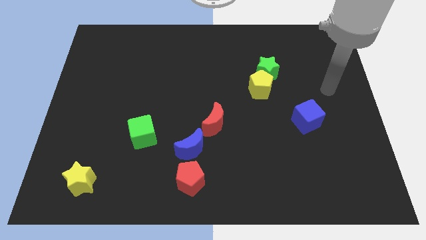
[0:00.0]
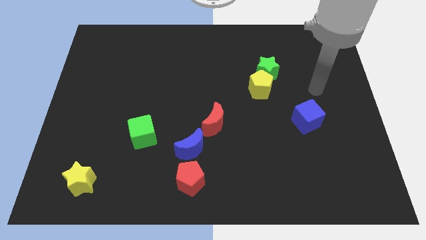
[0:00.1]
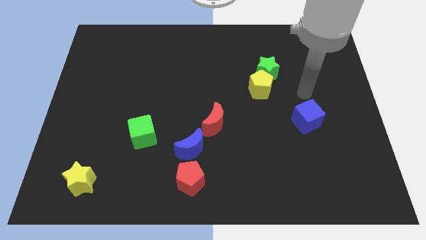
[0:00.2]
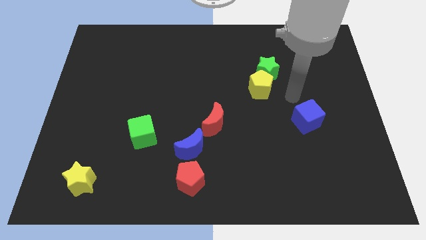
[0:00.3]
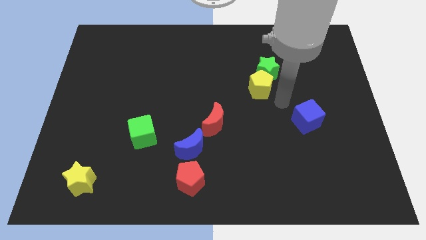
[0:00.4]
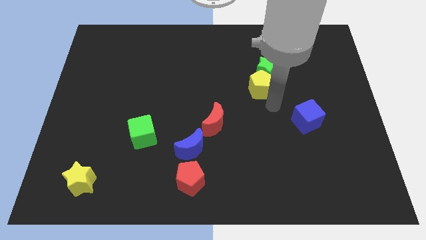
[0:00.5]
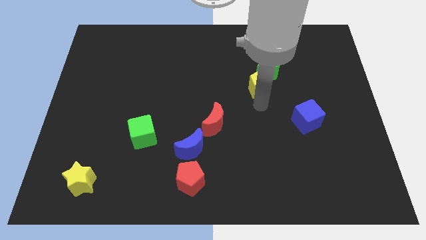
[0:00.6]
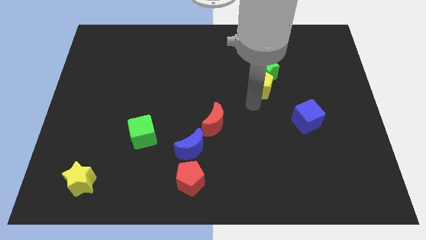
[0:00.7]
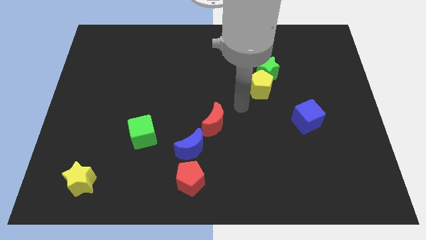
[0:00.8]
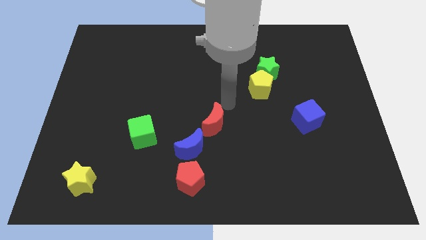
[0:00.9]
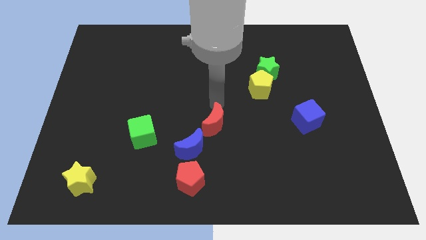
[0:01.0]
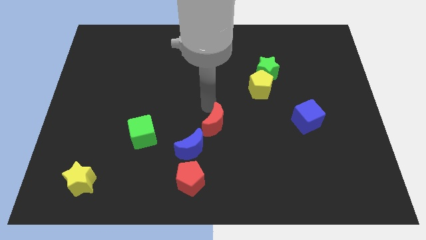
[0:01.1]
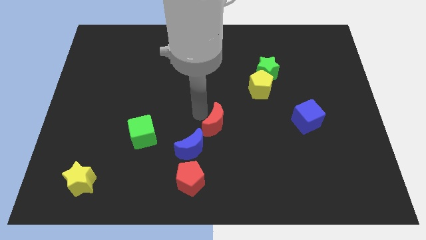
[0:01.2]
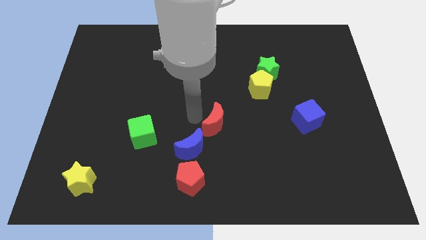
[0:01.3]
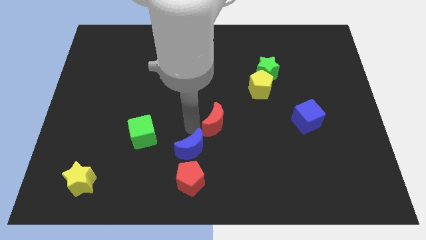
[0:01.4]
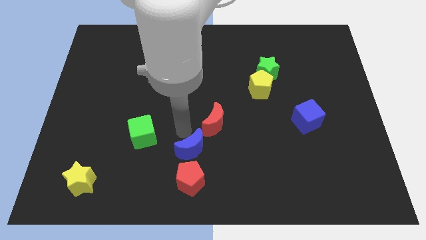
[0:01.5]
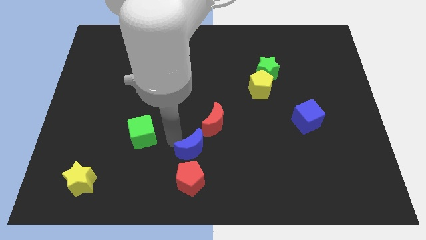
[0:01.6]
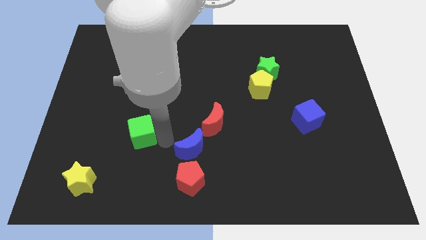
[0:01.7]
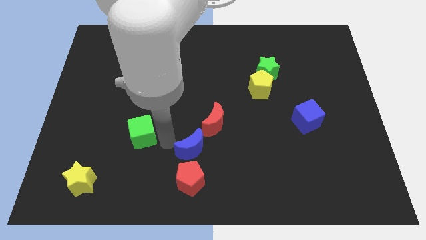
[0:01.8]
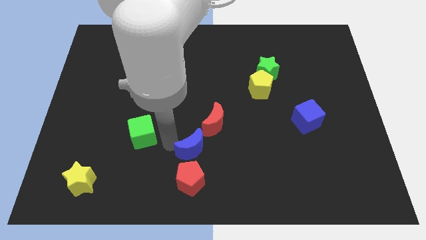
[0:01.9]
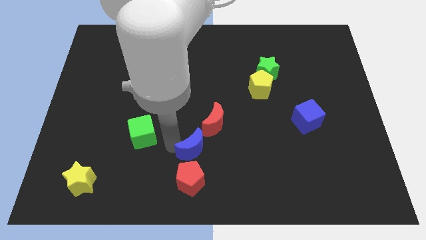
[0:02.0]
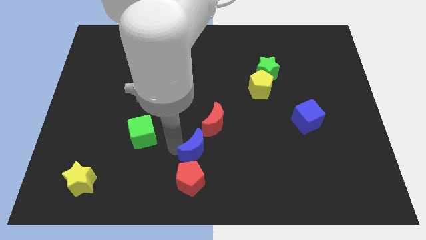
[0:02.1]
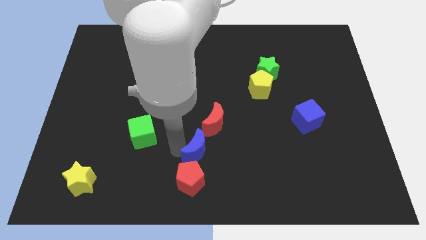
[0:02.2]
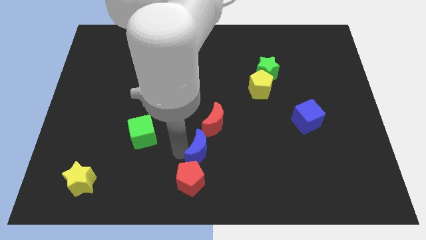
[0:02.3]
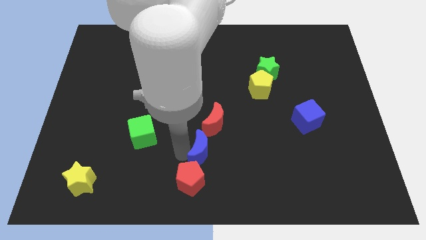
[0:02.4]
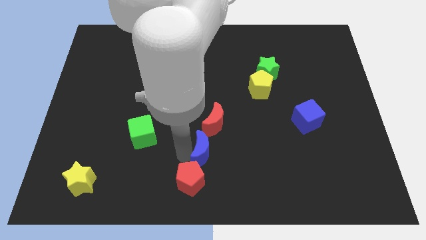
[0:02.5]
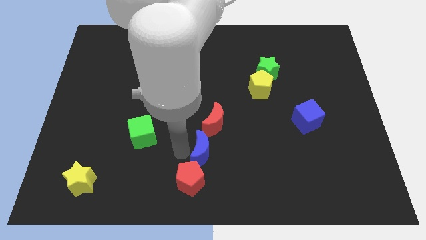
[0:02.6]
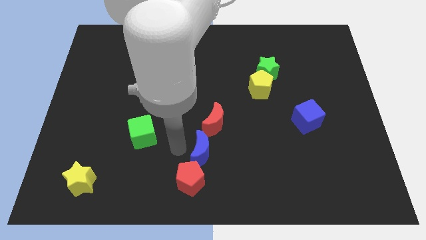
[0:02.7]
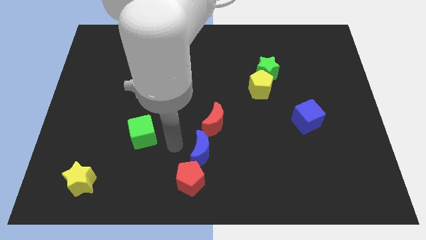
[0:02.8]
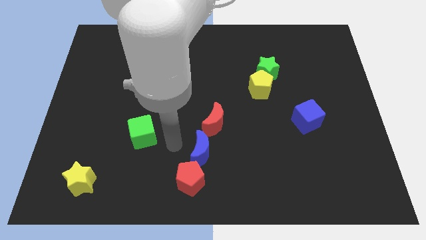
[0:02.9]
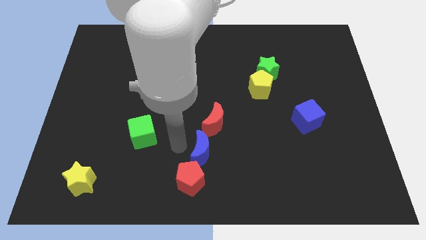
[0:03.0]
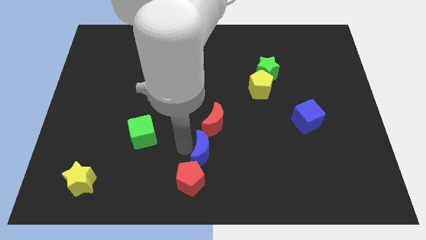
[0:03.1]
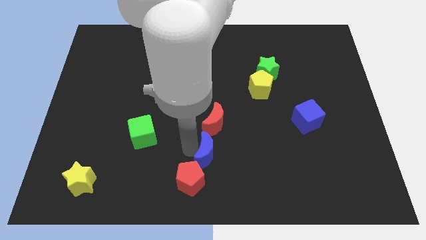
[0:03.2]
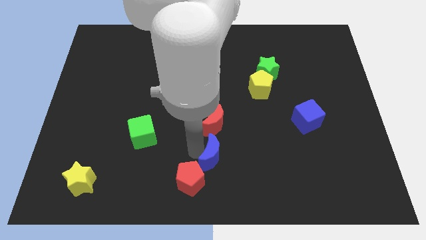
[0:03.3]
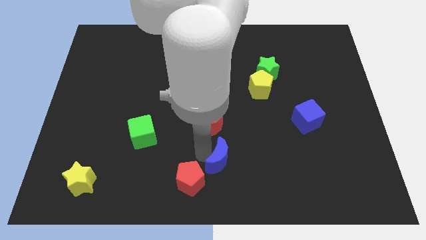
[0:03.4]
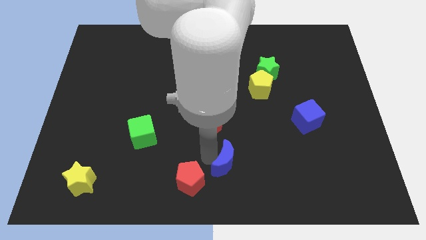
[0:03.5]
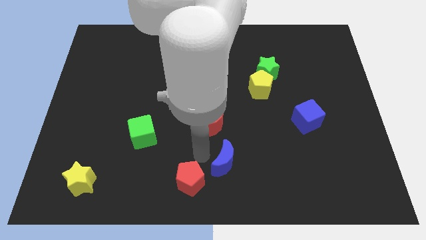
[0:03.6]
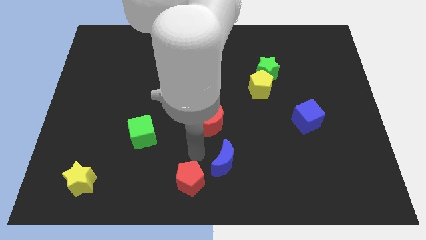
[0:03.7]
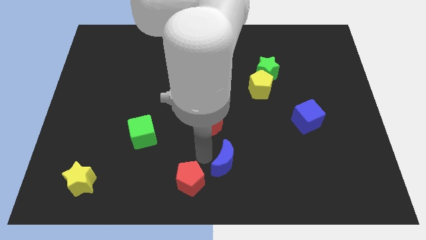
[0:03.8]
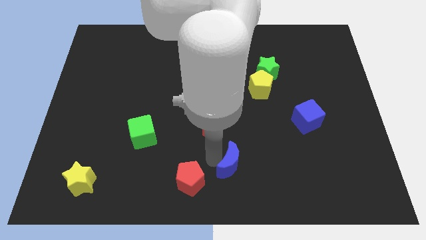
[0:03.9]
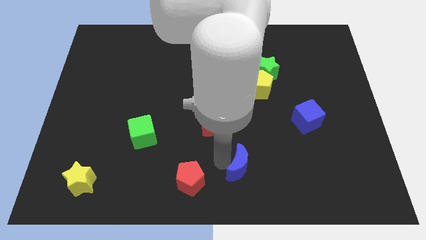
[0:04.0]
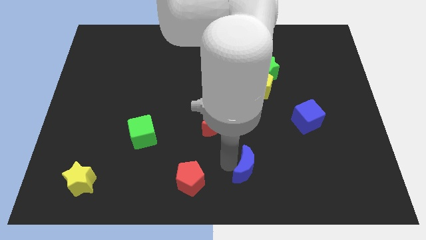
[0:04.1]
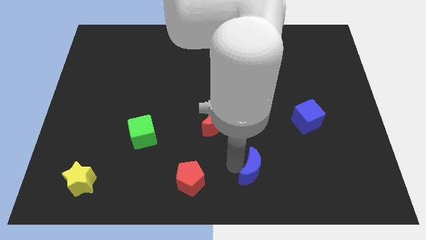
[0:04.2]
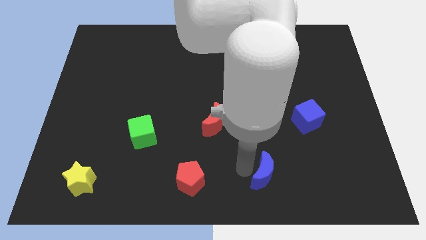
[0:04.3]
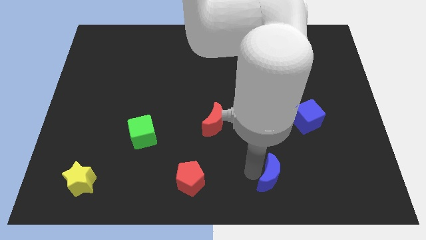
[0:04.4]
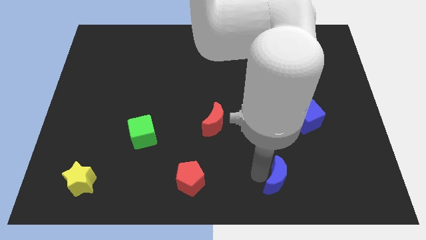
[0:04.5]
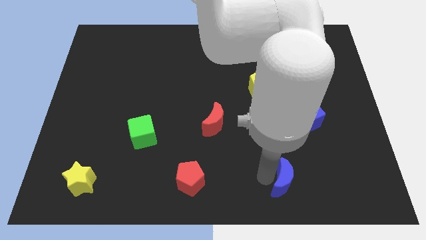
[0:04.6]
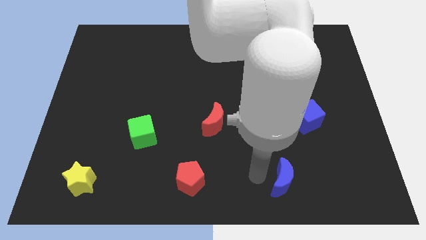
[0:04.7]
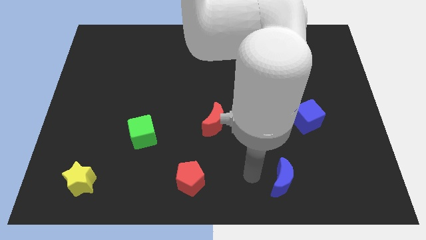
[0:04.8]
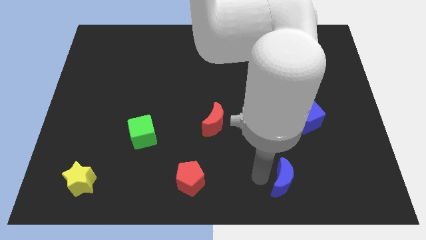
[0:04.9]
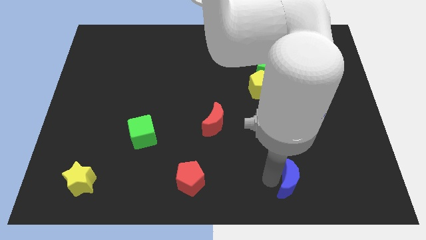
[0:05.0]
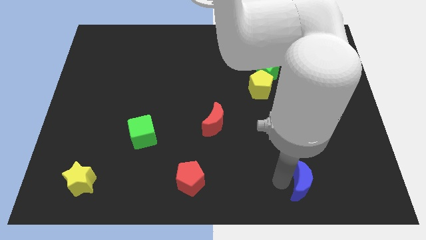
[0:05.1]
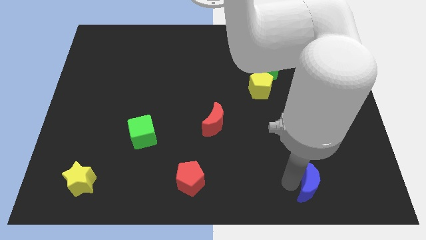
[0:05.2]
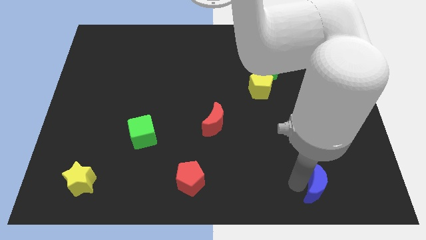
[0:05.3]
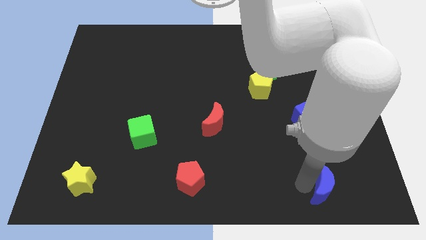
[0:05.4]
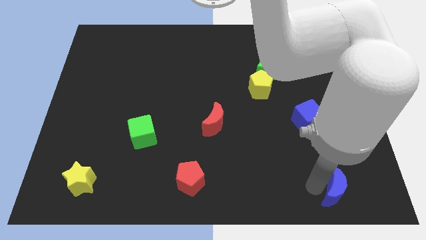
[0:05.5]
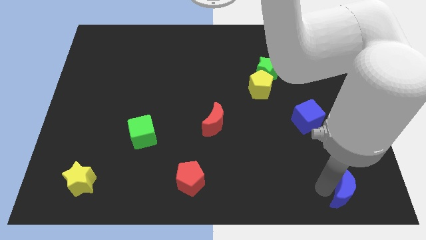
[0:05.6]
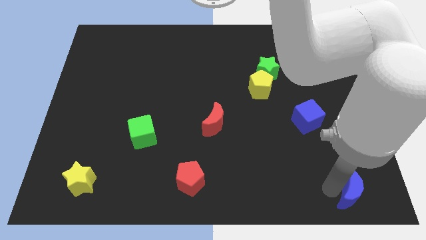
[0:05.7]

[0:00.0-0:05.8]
slide the blue moon to the lower right corner
